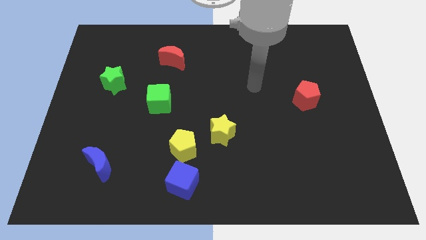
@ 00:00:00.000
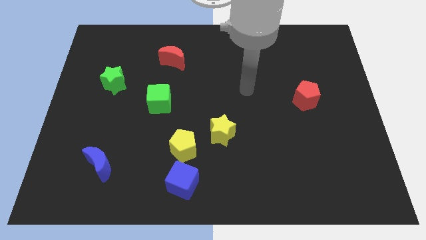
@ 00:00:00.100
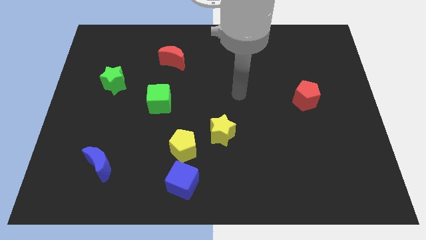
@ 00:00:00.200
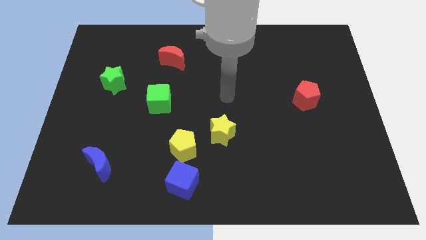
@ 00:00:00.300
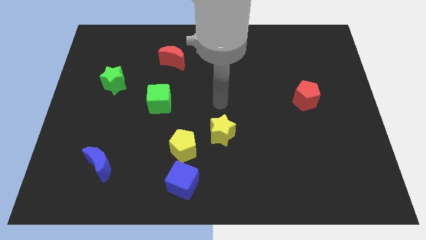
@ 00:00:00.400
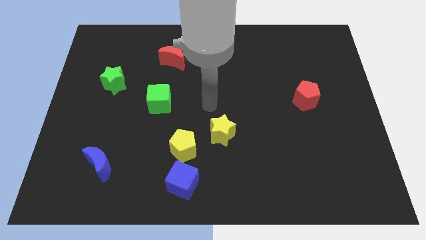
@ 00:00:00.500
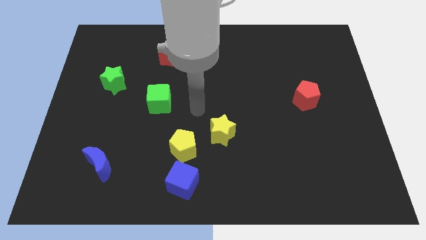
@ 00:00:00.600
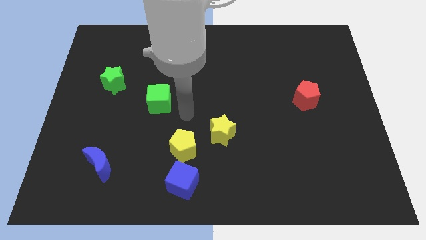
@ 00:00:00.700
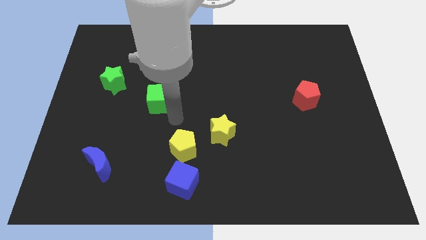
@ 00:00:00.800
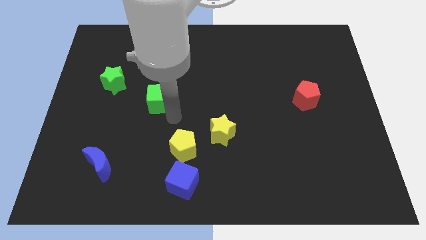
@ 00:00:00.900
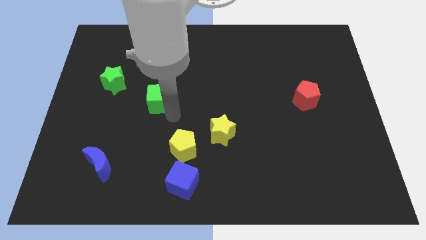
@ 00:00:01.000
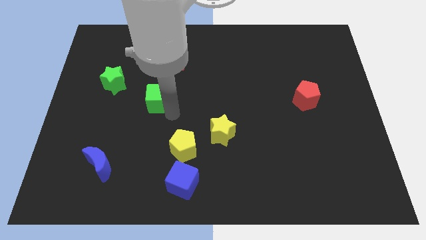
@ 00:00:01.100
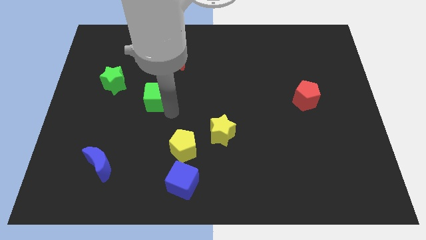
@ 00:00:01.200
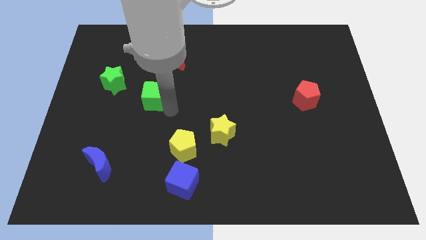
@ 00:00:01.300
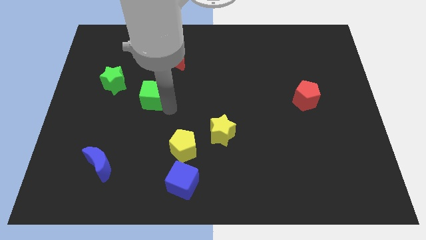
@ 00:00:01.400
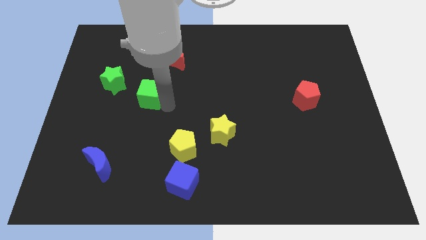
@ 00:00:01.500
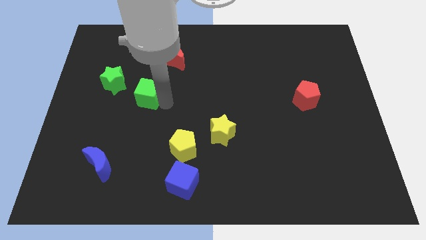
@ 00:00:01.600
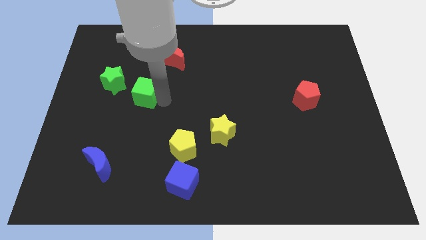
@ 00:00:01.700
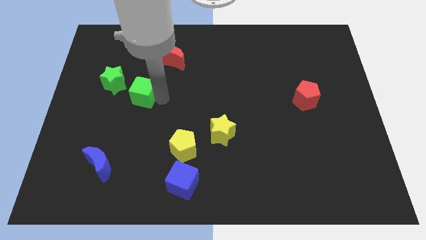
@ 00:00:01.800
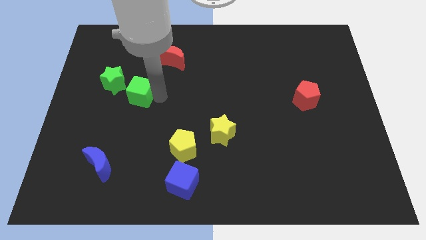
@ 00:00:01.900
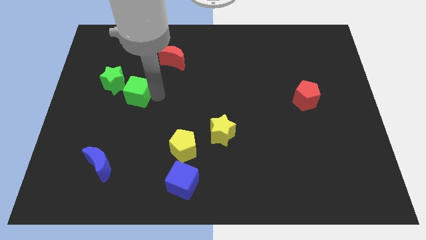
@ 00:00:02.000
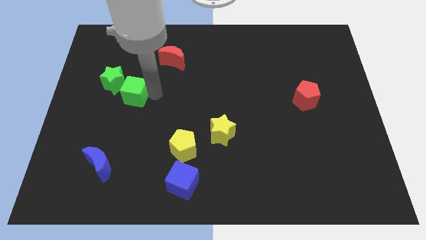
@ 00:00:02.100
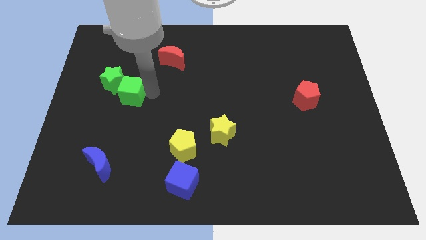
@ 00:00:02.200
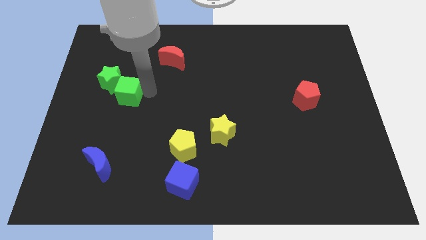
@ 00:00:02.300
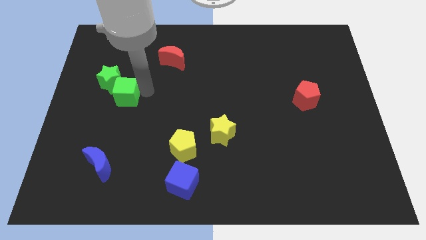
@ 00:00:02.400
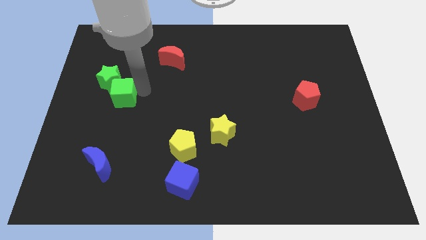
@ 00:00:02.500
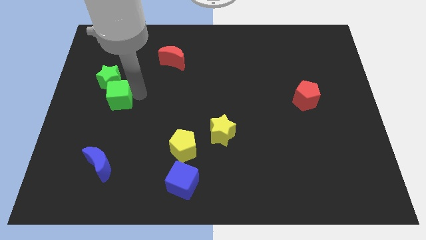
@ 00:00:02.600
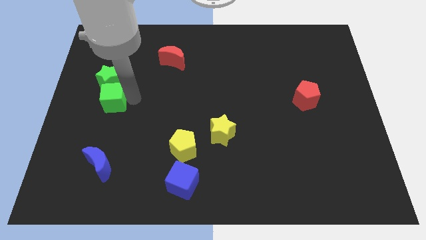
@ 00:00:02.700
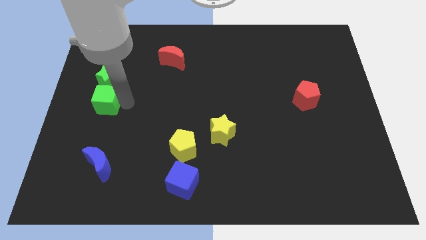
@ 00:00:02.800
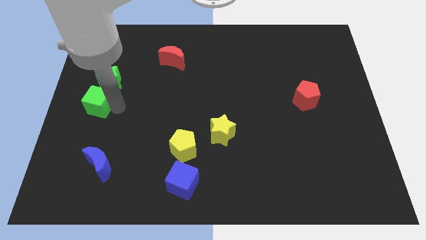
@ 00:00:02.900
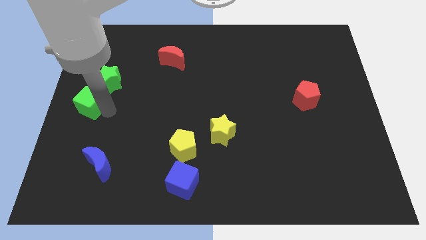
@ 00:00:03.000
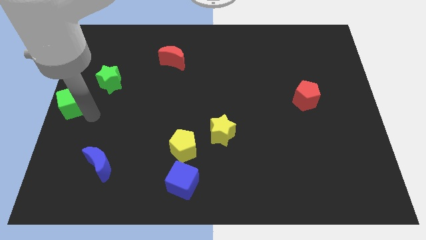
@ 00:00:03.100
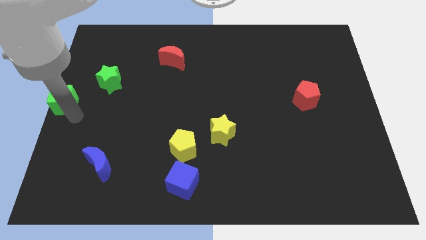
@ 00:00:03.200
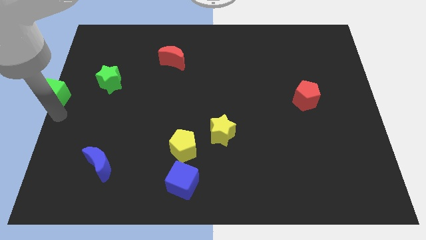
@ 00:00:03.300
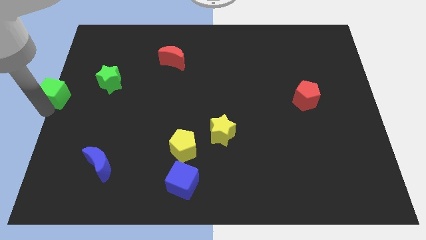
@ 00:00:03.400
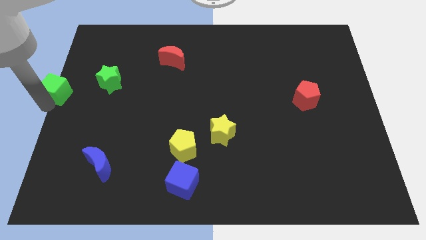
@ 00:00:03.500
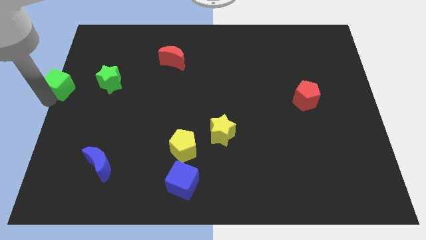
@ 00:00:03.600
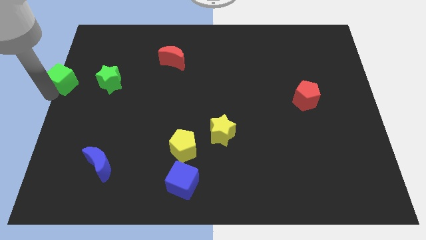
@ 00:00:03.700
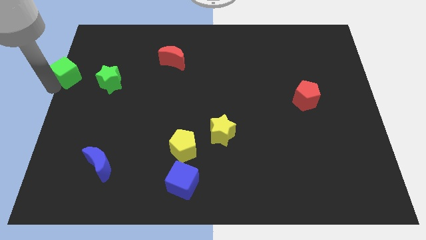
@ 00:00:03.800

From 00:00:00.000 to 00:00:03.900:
slightly slide the green cube upwards and to the left

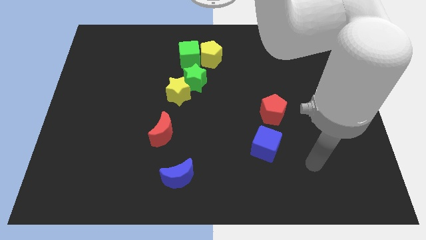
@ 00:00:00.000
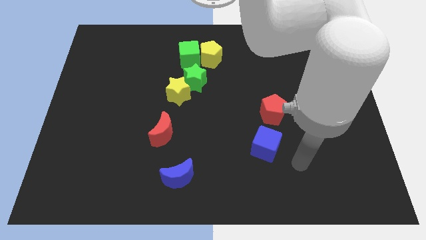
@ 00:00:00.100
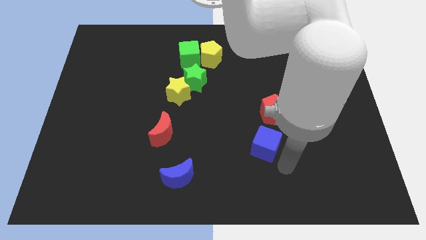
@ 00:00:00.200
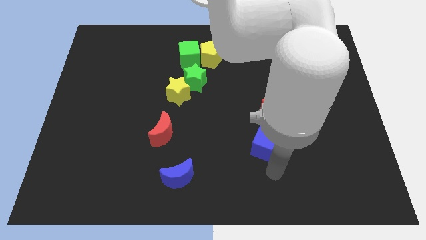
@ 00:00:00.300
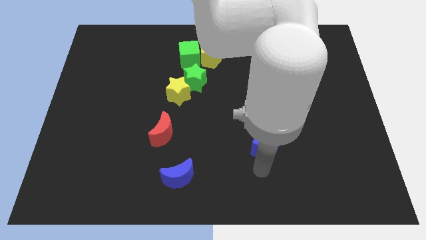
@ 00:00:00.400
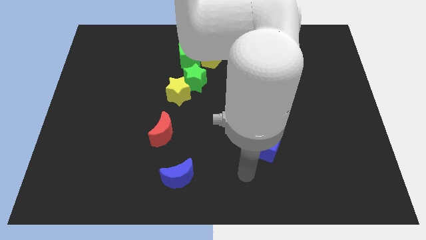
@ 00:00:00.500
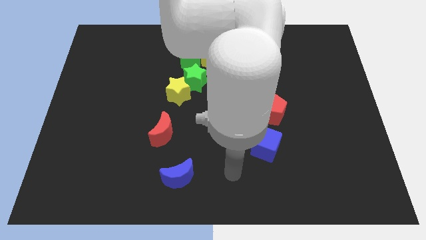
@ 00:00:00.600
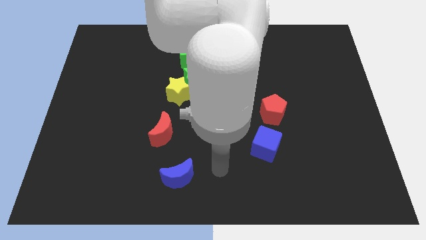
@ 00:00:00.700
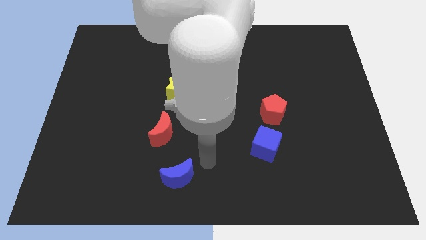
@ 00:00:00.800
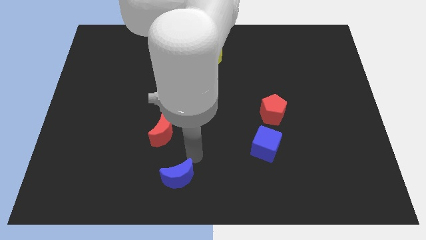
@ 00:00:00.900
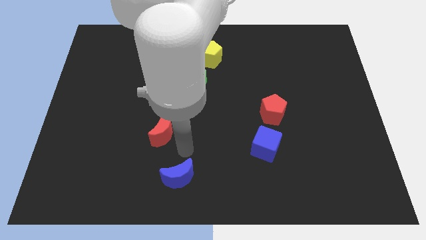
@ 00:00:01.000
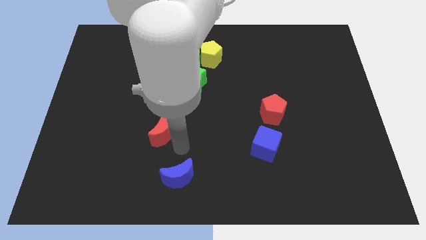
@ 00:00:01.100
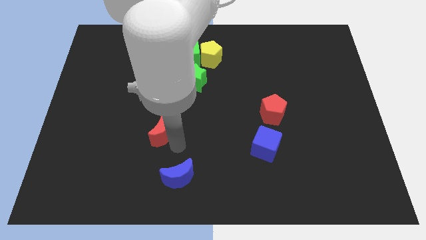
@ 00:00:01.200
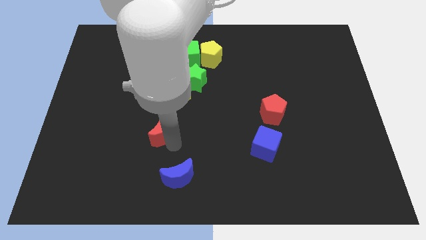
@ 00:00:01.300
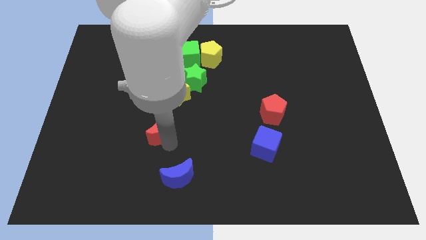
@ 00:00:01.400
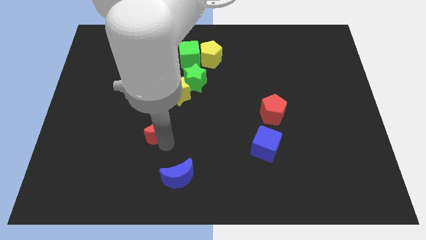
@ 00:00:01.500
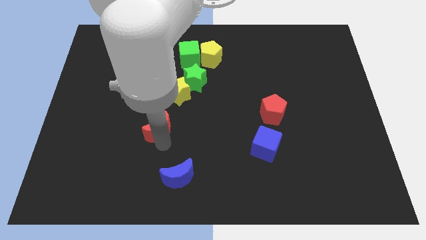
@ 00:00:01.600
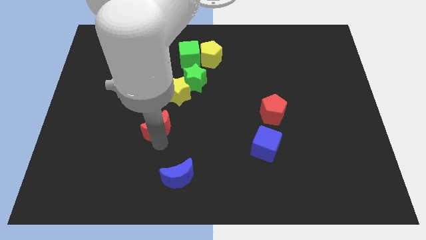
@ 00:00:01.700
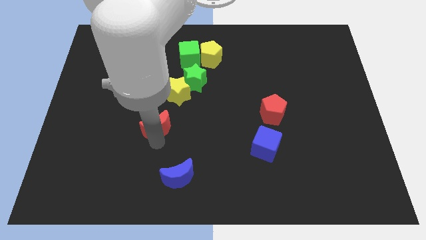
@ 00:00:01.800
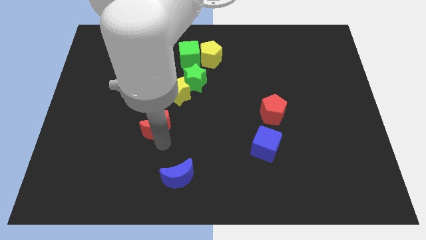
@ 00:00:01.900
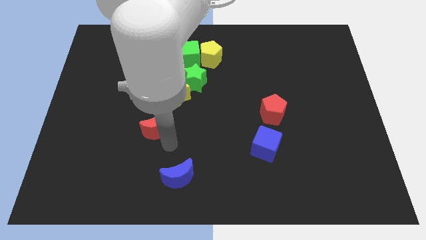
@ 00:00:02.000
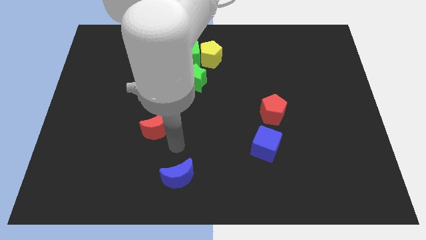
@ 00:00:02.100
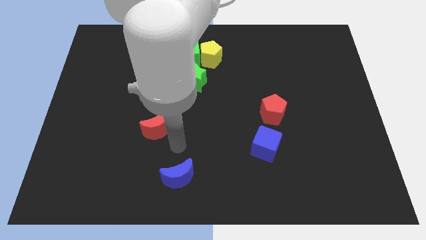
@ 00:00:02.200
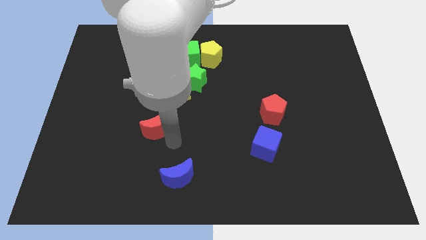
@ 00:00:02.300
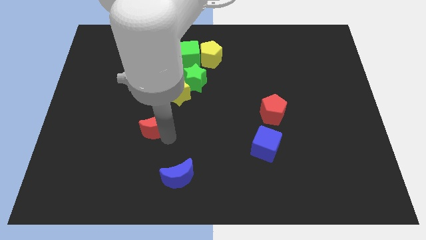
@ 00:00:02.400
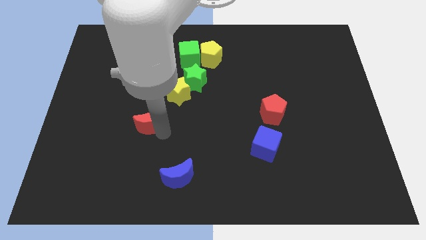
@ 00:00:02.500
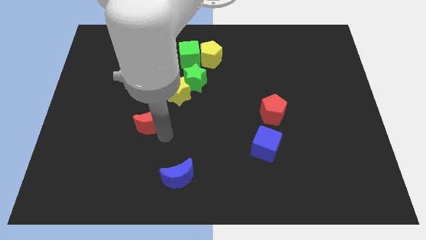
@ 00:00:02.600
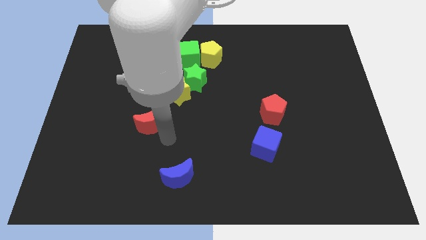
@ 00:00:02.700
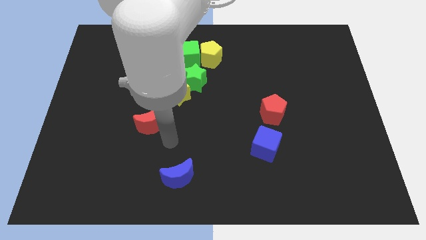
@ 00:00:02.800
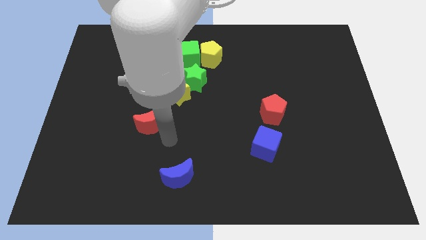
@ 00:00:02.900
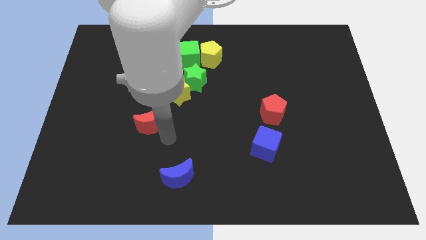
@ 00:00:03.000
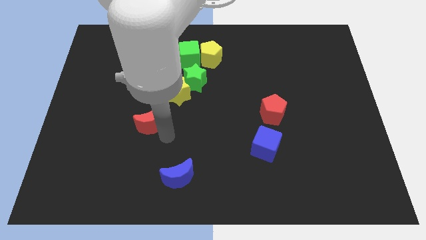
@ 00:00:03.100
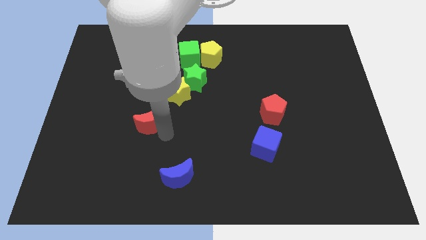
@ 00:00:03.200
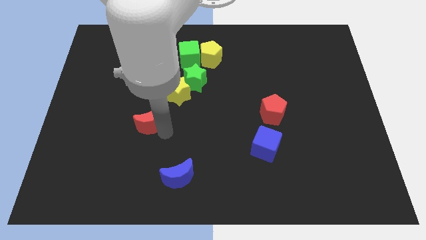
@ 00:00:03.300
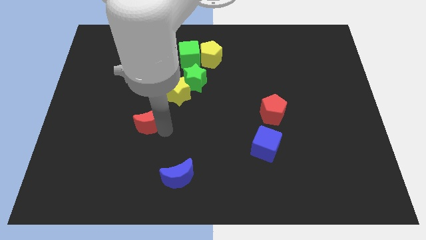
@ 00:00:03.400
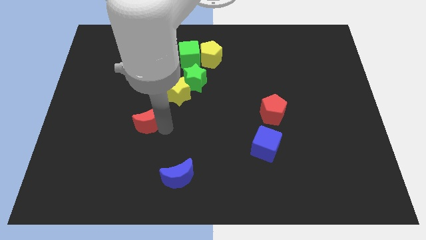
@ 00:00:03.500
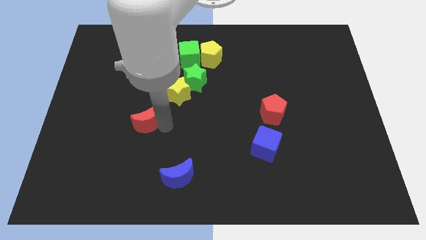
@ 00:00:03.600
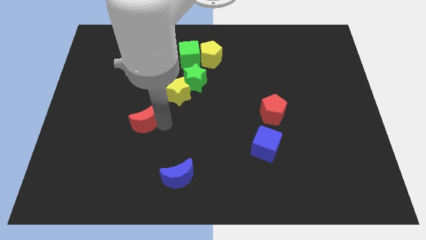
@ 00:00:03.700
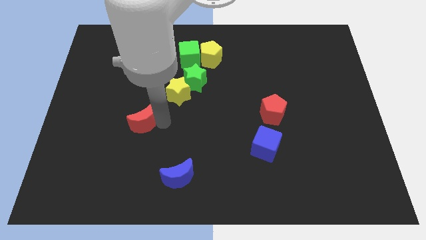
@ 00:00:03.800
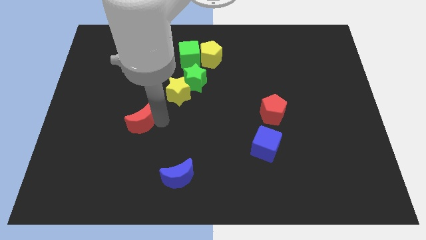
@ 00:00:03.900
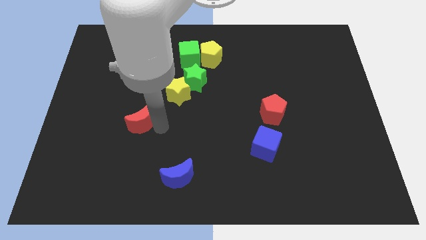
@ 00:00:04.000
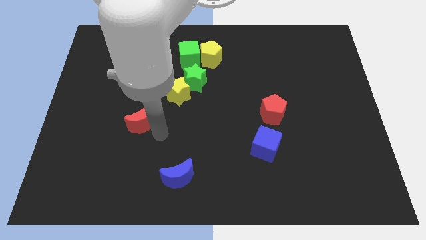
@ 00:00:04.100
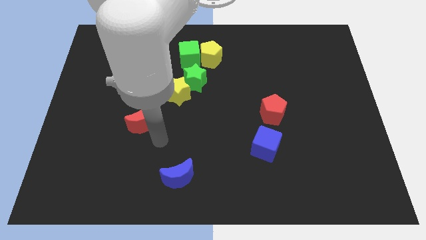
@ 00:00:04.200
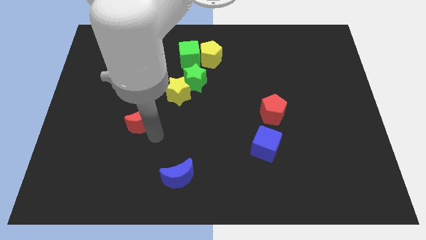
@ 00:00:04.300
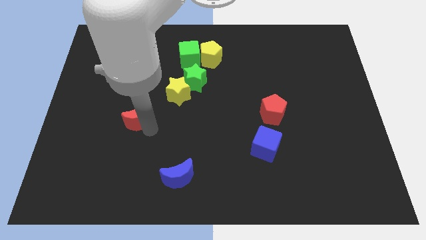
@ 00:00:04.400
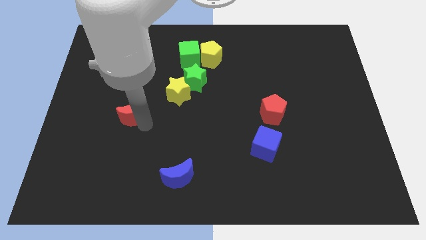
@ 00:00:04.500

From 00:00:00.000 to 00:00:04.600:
push the red moon upwards and left diagonally a bit
